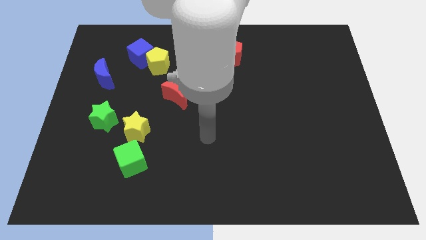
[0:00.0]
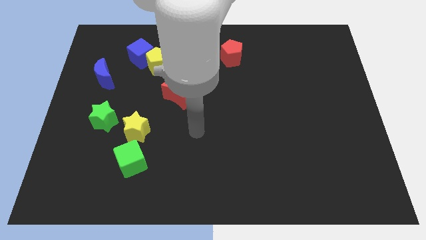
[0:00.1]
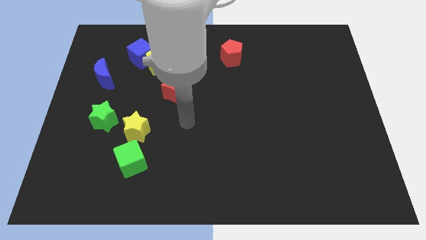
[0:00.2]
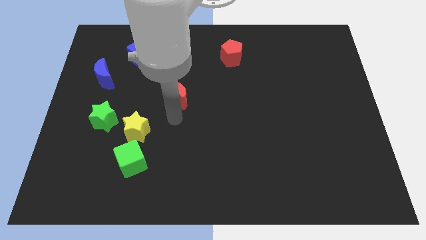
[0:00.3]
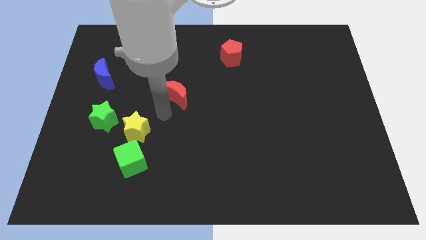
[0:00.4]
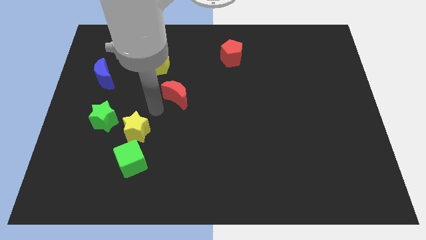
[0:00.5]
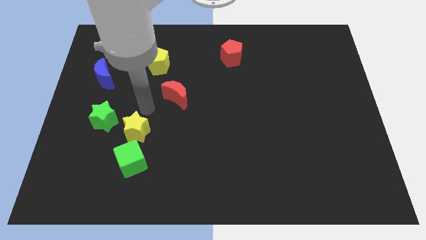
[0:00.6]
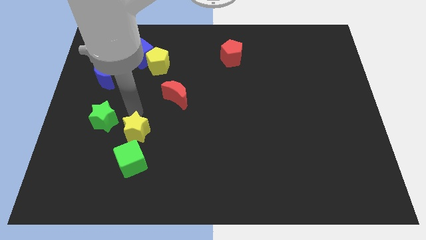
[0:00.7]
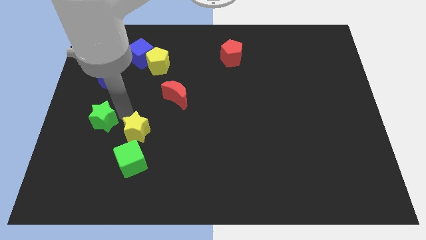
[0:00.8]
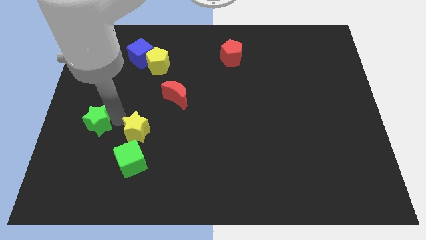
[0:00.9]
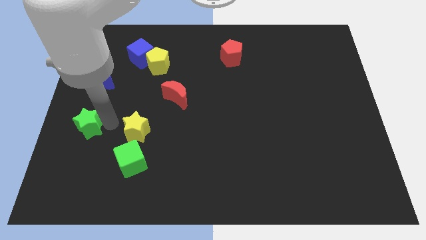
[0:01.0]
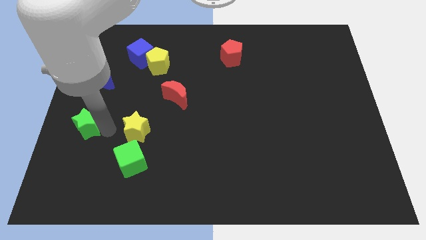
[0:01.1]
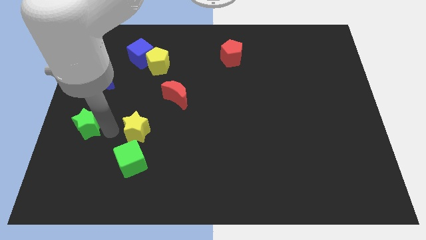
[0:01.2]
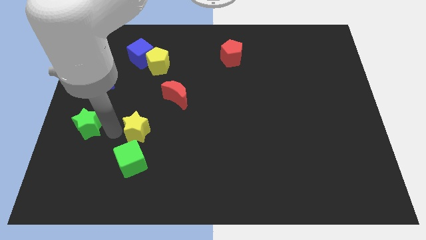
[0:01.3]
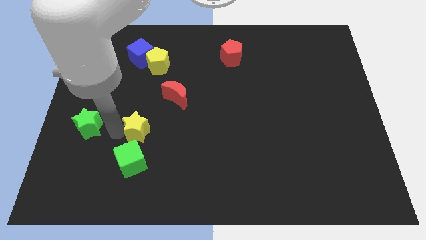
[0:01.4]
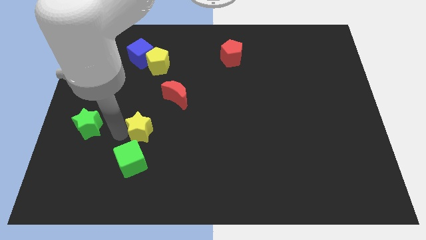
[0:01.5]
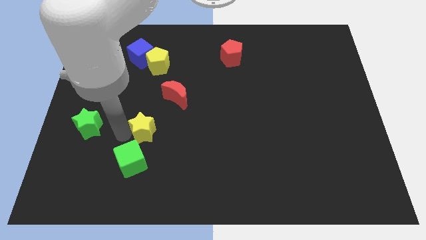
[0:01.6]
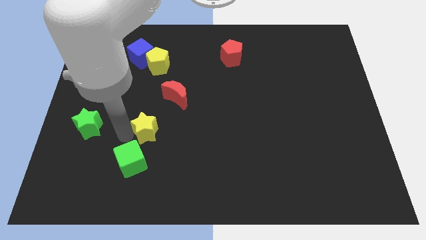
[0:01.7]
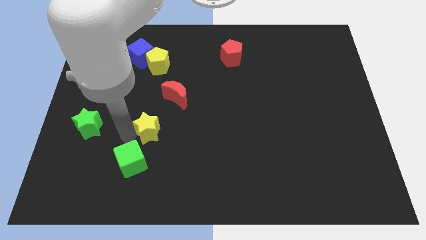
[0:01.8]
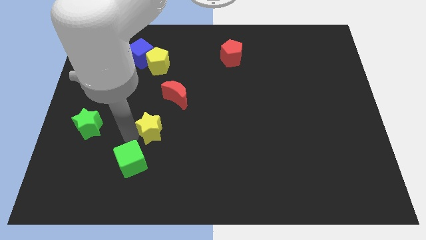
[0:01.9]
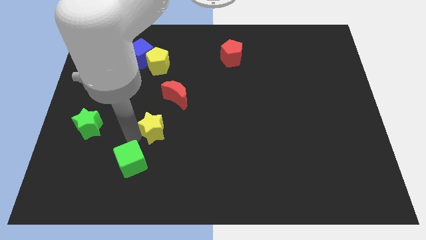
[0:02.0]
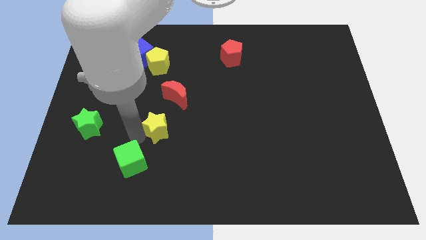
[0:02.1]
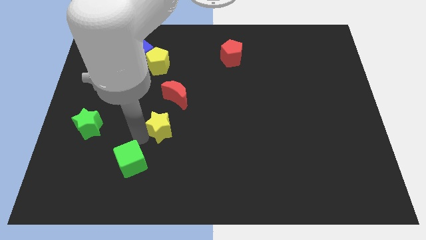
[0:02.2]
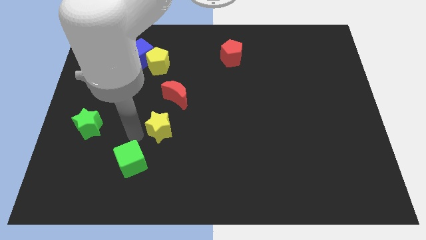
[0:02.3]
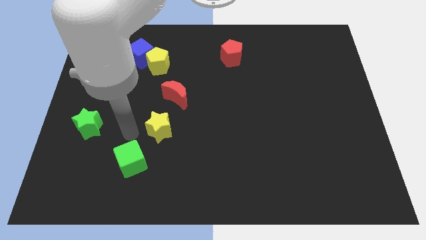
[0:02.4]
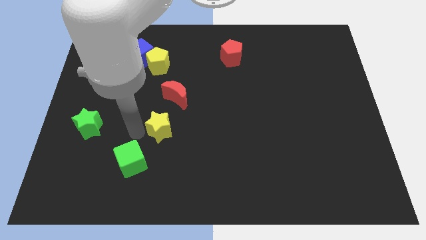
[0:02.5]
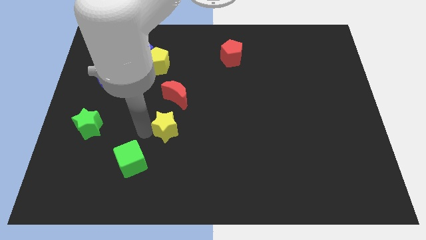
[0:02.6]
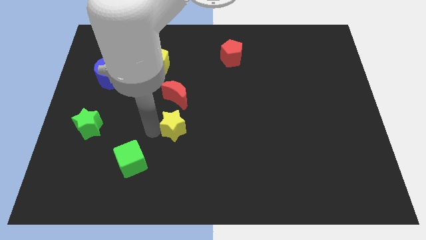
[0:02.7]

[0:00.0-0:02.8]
slightly move the yellow star right

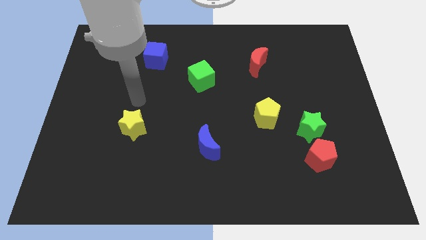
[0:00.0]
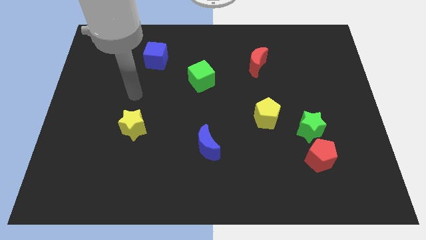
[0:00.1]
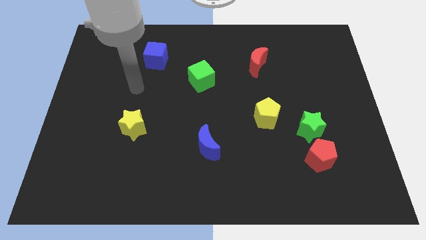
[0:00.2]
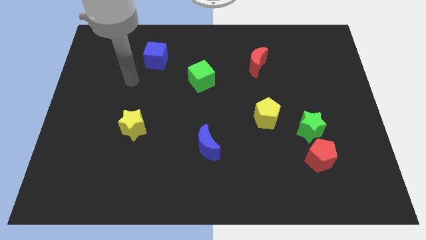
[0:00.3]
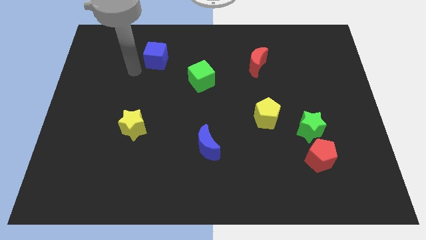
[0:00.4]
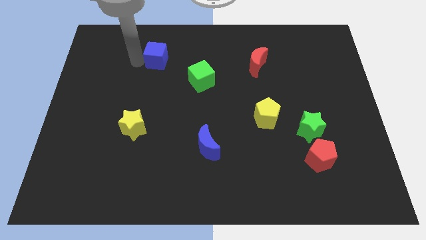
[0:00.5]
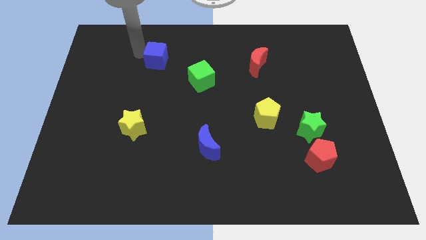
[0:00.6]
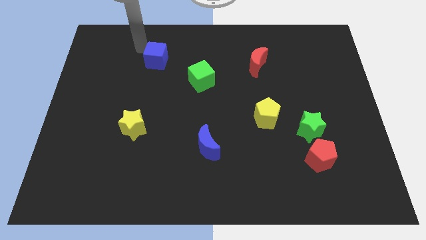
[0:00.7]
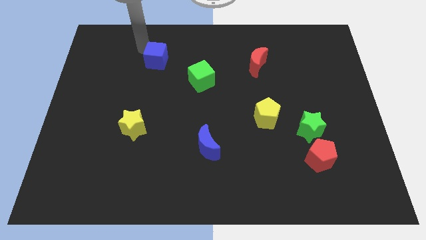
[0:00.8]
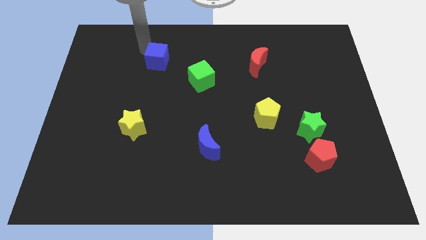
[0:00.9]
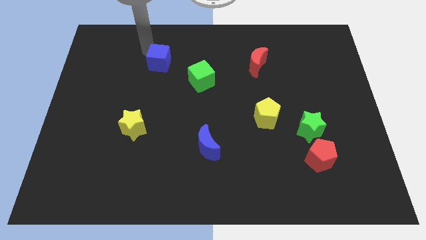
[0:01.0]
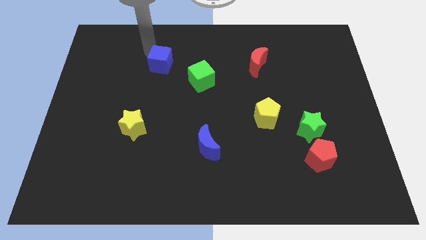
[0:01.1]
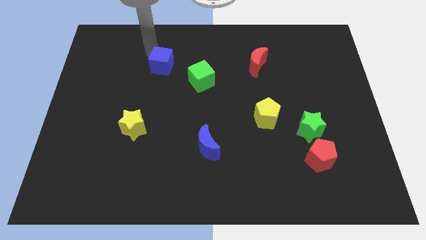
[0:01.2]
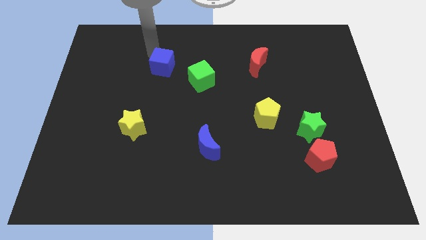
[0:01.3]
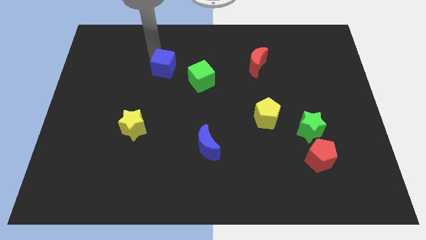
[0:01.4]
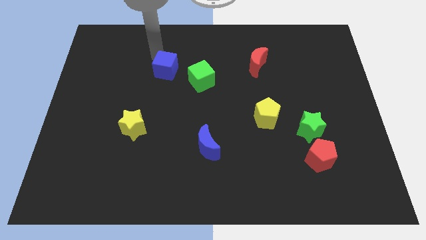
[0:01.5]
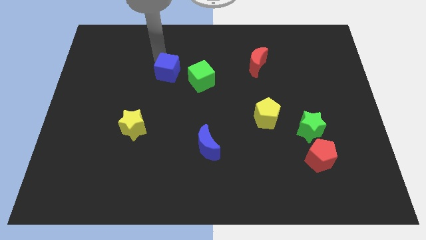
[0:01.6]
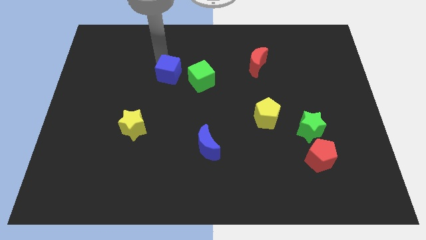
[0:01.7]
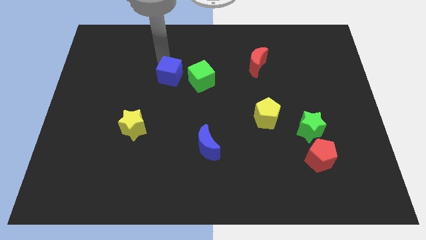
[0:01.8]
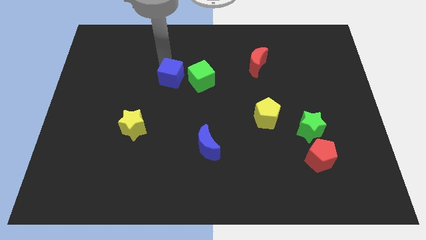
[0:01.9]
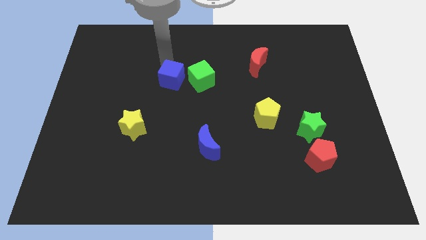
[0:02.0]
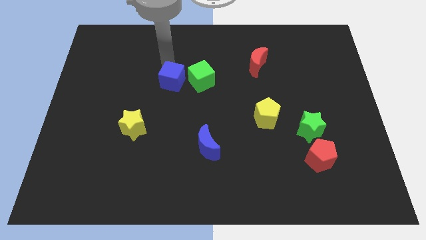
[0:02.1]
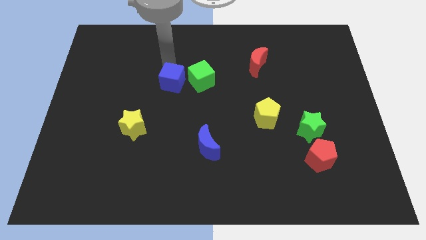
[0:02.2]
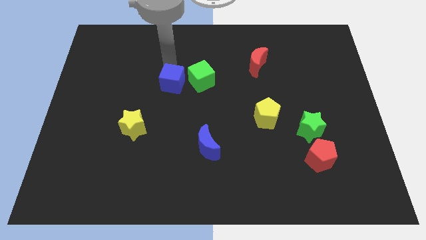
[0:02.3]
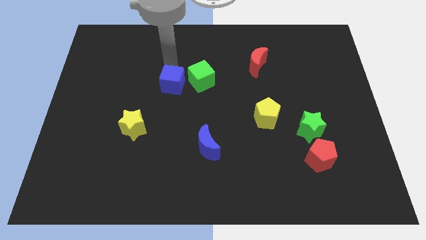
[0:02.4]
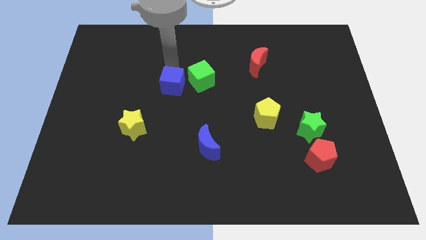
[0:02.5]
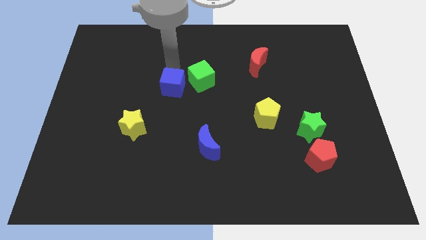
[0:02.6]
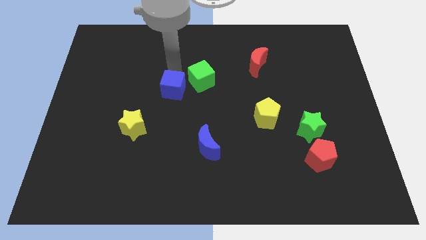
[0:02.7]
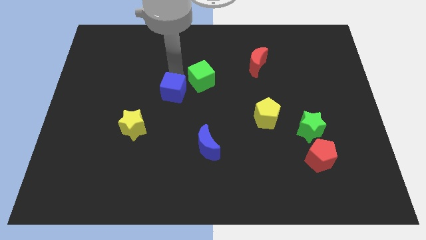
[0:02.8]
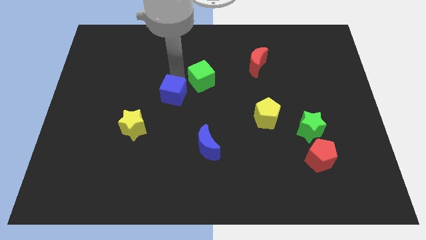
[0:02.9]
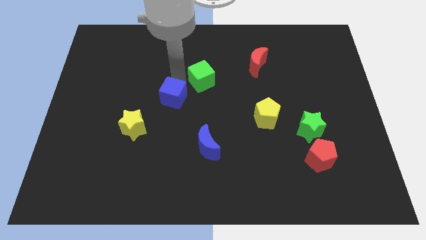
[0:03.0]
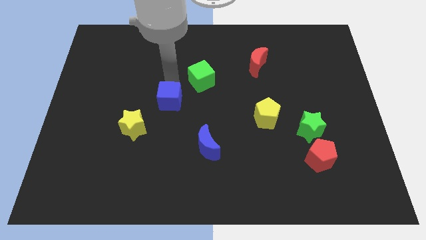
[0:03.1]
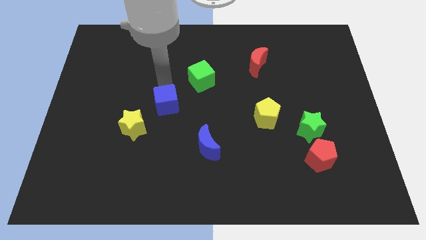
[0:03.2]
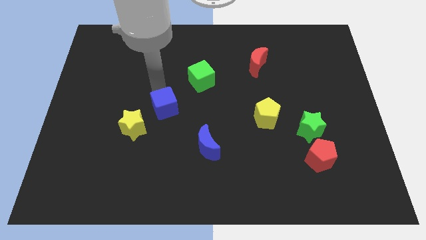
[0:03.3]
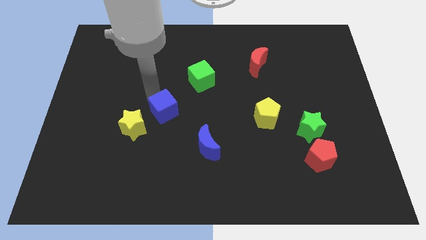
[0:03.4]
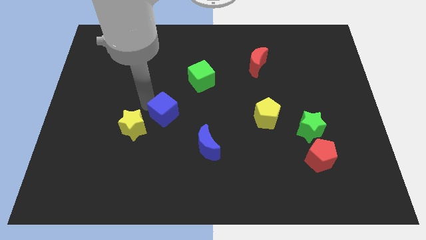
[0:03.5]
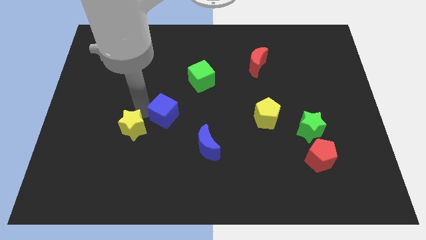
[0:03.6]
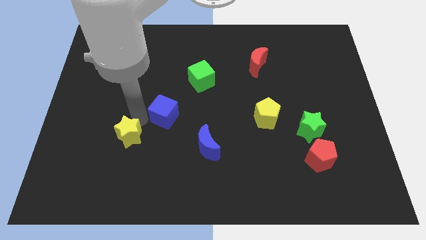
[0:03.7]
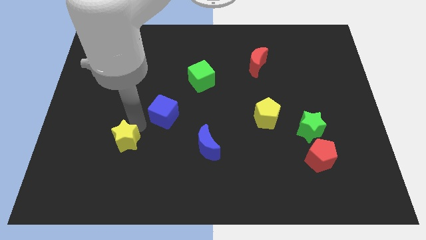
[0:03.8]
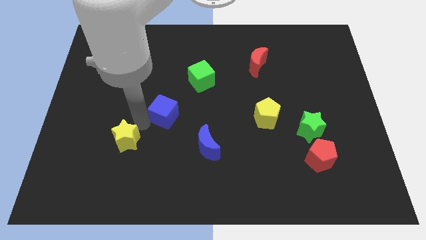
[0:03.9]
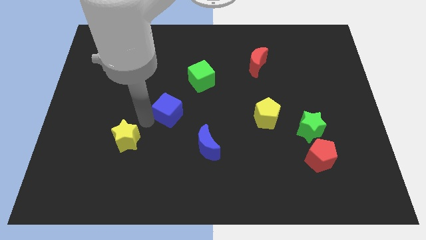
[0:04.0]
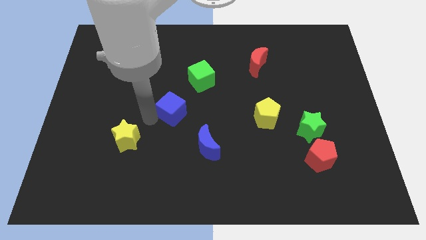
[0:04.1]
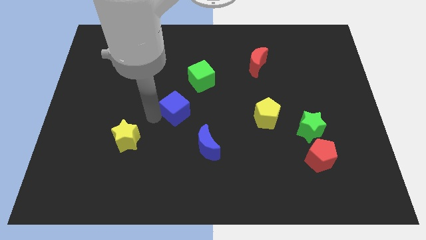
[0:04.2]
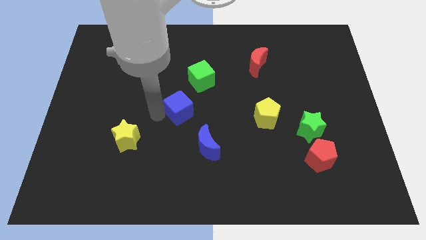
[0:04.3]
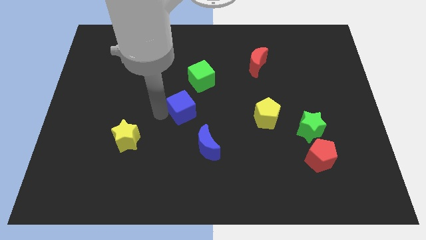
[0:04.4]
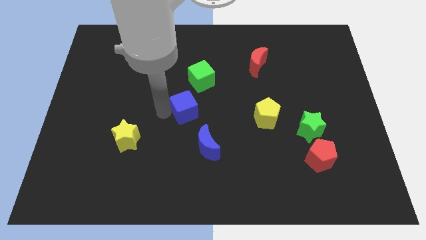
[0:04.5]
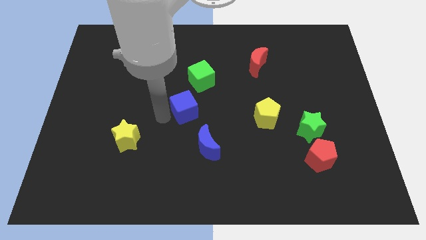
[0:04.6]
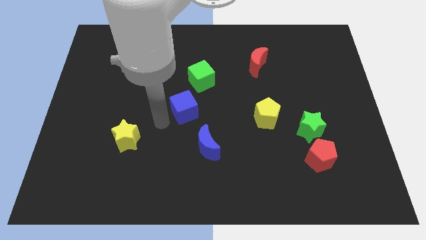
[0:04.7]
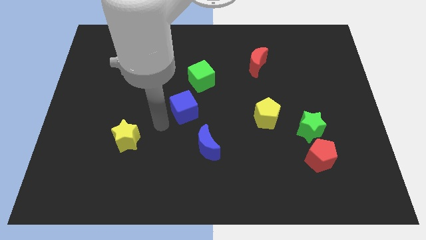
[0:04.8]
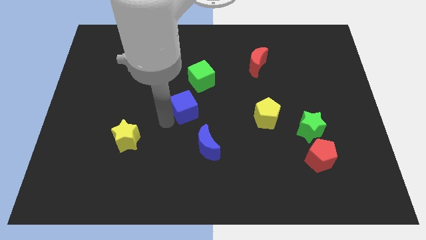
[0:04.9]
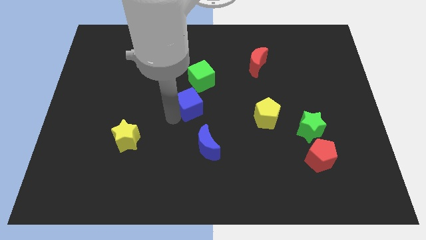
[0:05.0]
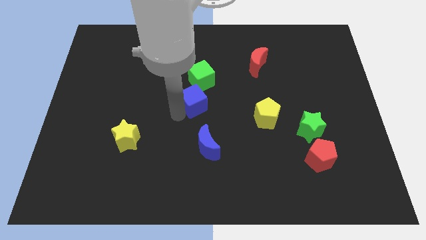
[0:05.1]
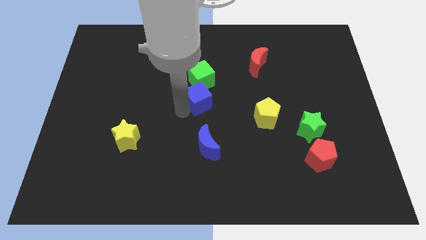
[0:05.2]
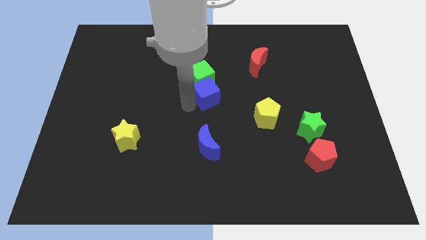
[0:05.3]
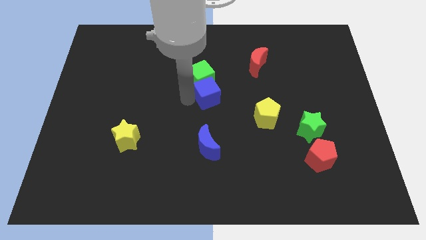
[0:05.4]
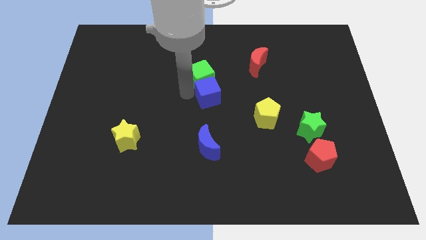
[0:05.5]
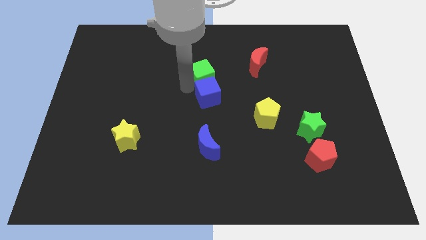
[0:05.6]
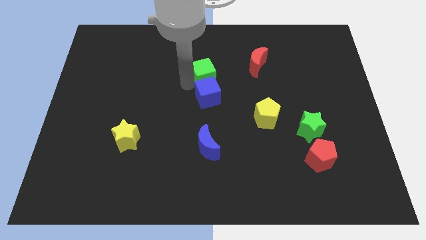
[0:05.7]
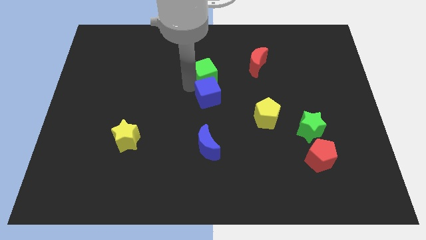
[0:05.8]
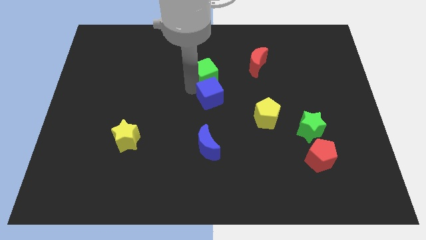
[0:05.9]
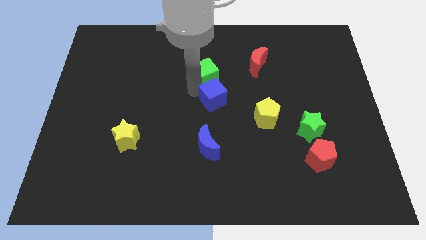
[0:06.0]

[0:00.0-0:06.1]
slide the blue cube downwards and then right
